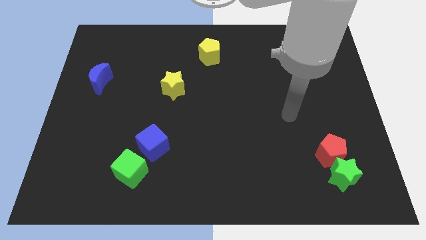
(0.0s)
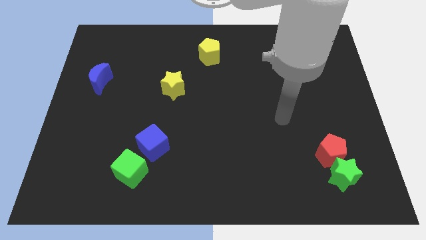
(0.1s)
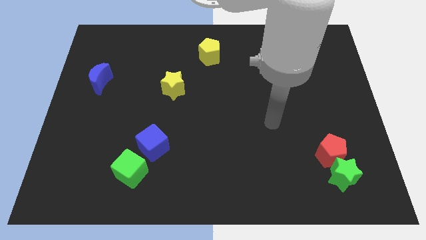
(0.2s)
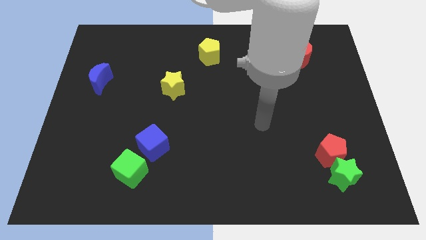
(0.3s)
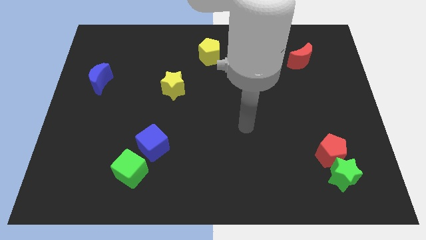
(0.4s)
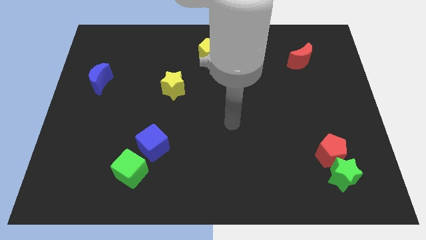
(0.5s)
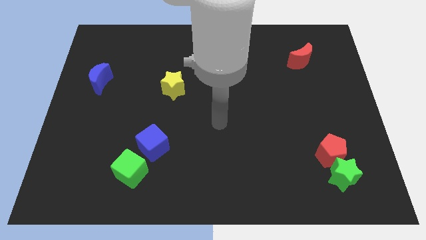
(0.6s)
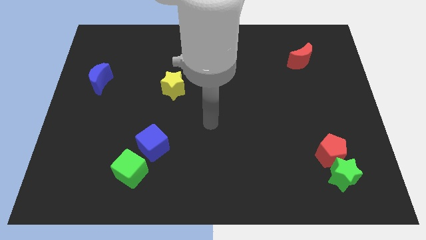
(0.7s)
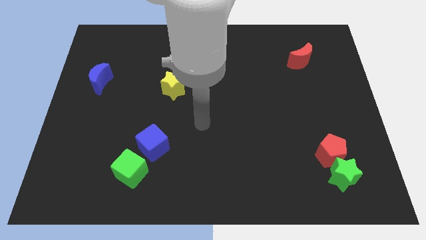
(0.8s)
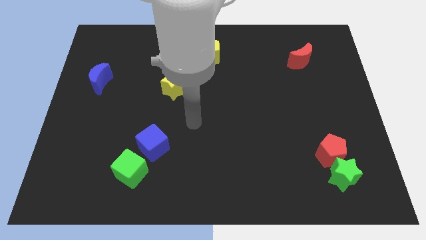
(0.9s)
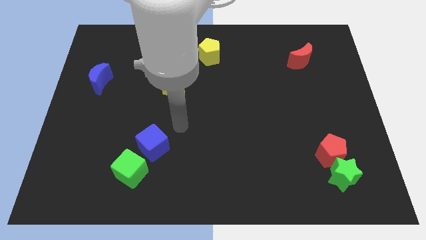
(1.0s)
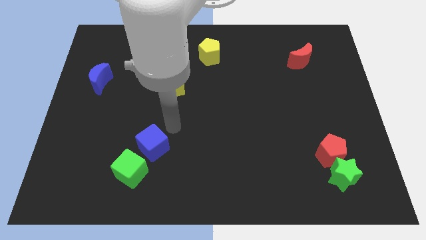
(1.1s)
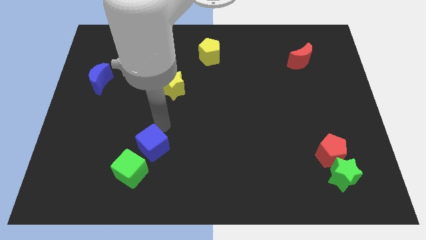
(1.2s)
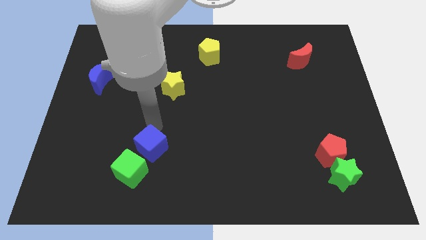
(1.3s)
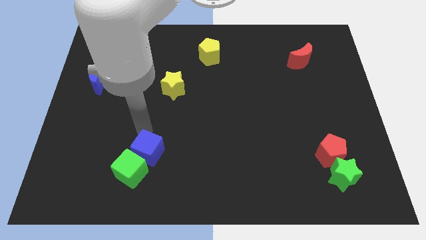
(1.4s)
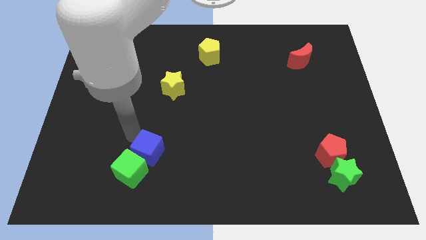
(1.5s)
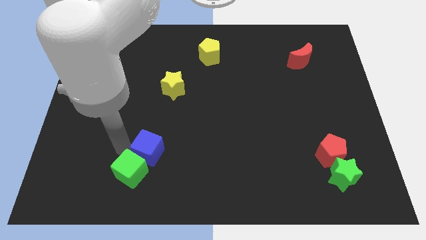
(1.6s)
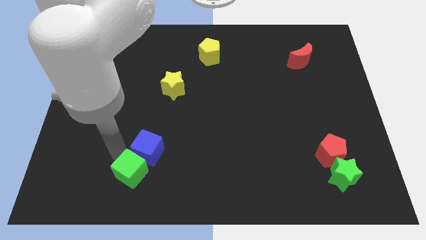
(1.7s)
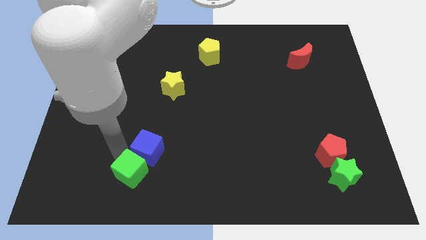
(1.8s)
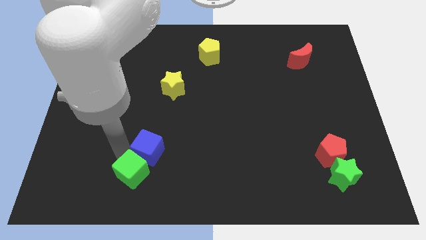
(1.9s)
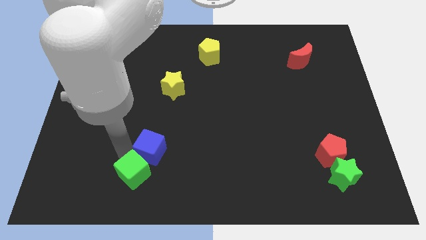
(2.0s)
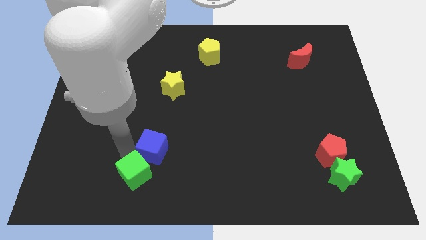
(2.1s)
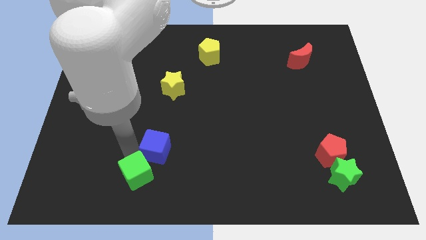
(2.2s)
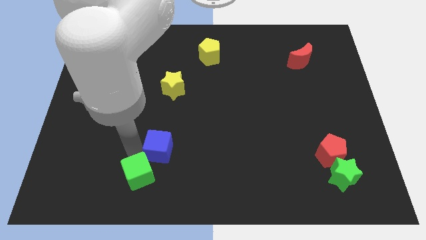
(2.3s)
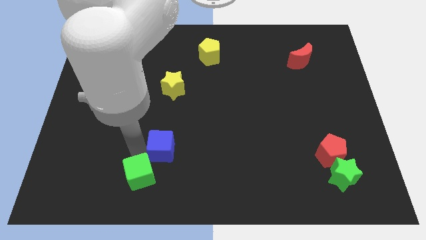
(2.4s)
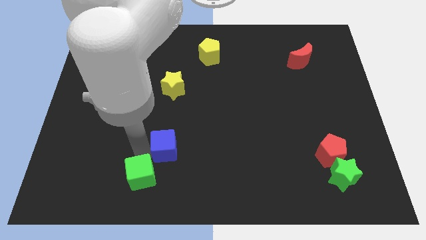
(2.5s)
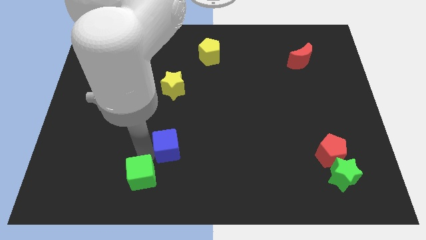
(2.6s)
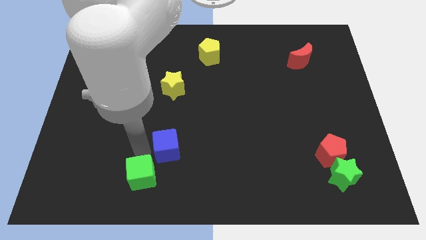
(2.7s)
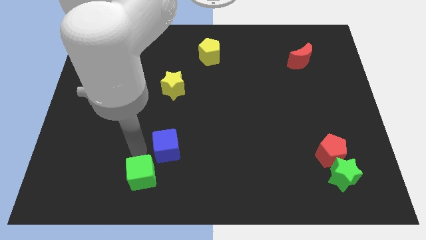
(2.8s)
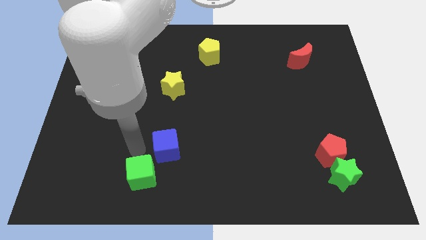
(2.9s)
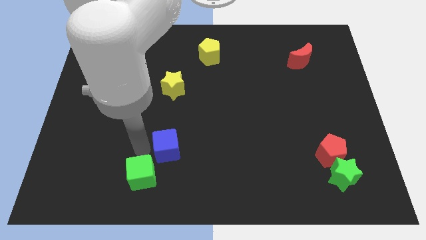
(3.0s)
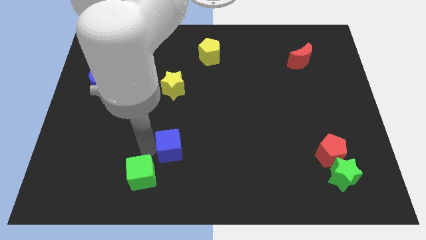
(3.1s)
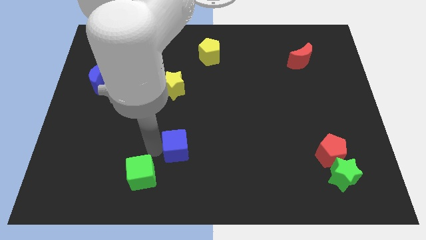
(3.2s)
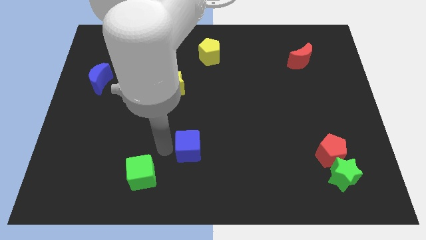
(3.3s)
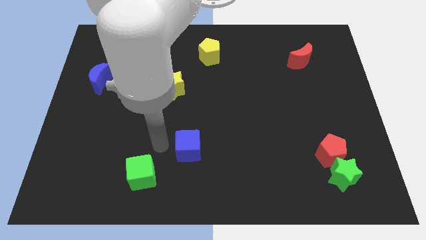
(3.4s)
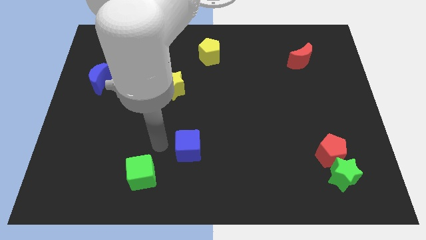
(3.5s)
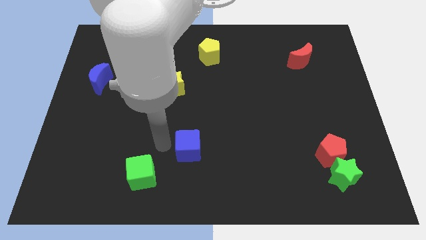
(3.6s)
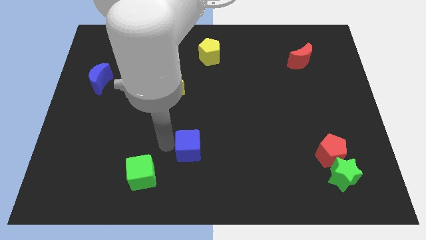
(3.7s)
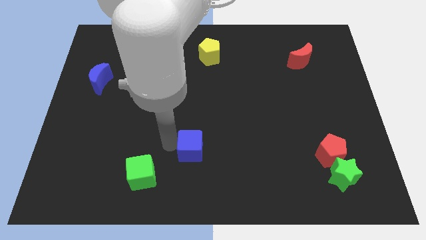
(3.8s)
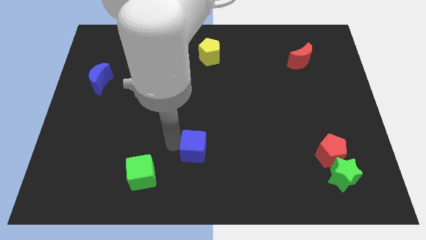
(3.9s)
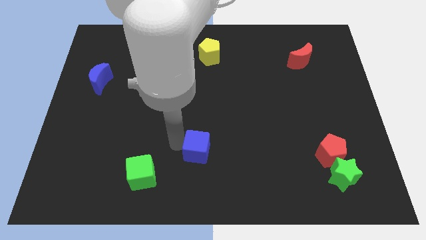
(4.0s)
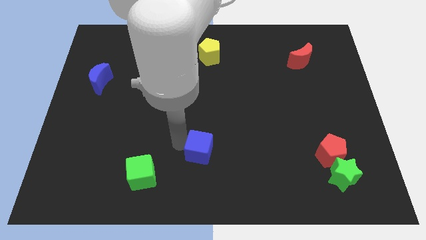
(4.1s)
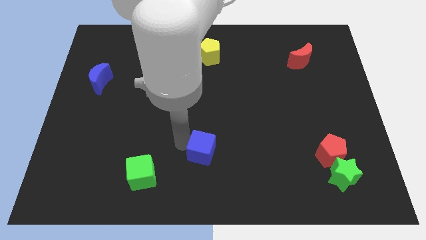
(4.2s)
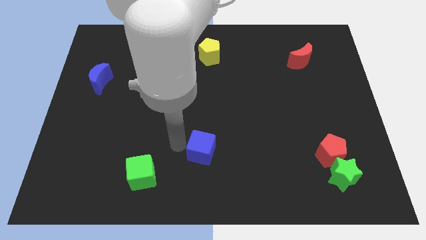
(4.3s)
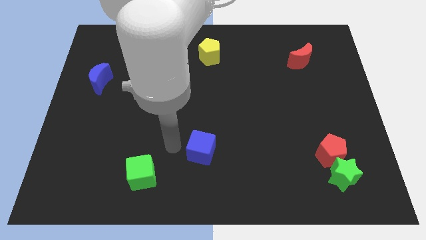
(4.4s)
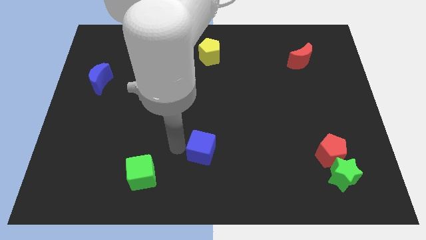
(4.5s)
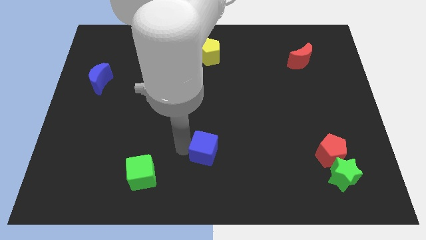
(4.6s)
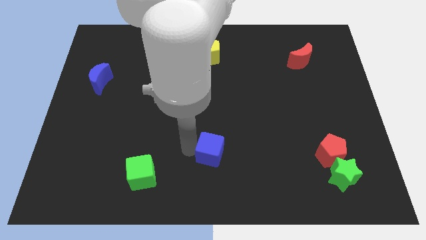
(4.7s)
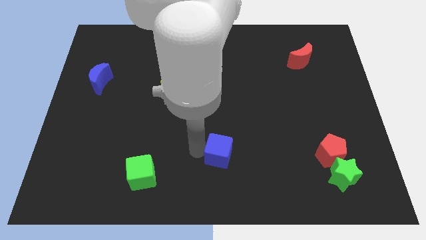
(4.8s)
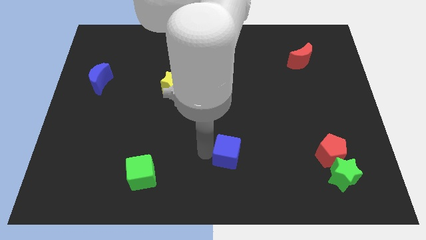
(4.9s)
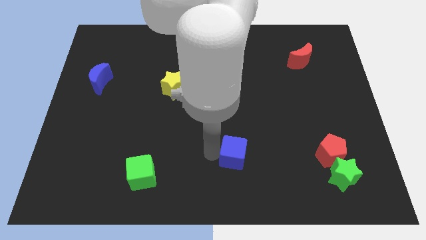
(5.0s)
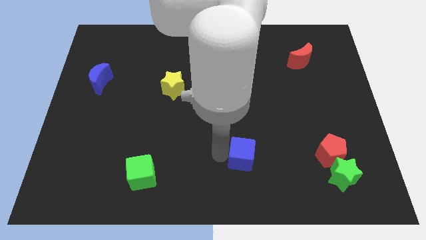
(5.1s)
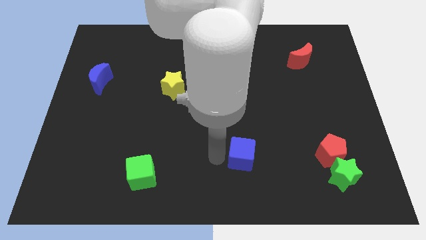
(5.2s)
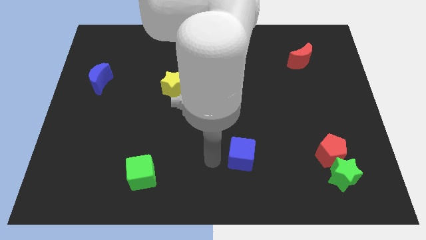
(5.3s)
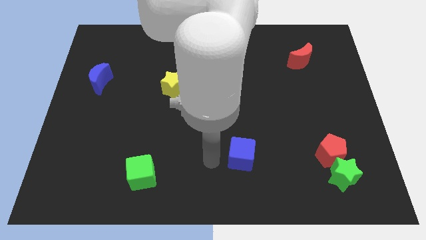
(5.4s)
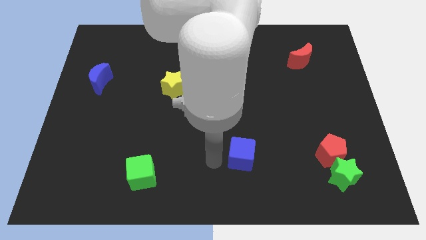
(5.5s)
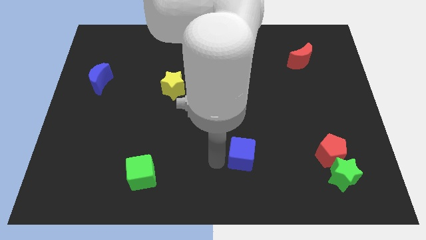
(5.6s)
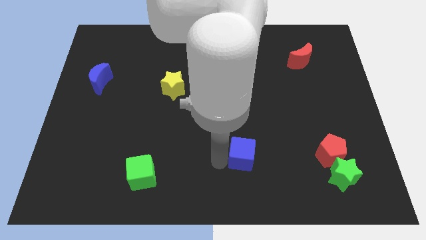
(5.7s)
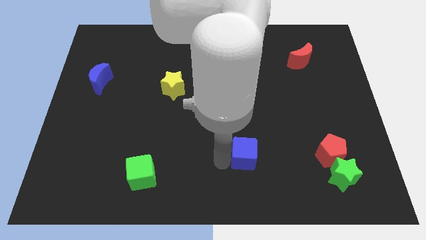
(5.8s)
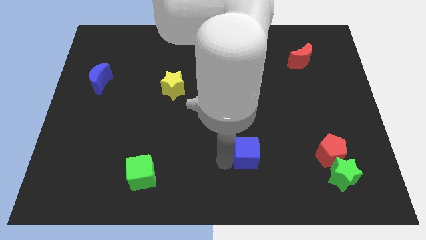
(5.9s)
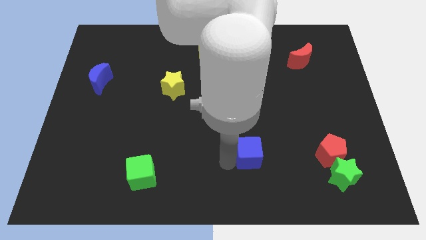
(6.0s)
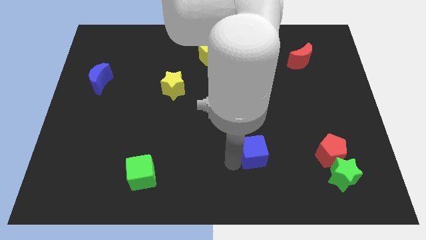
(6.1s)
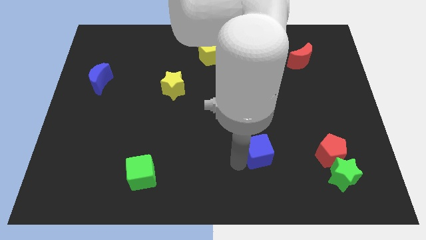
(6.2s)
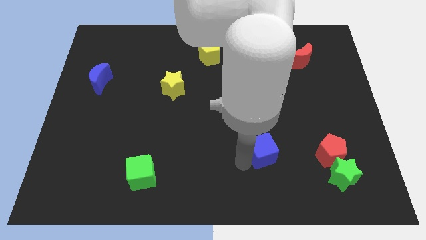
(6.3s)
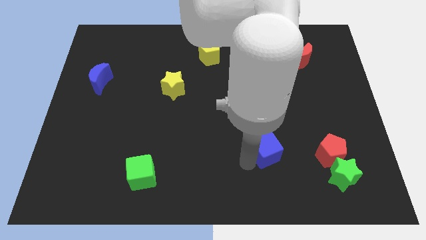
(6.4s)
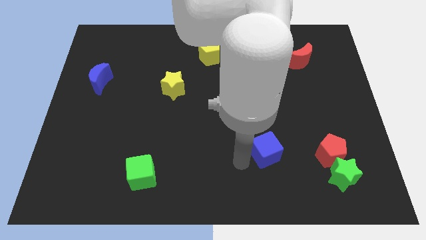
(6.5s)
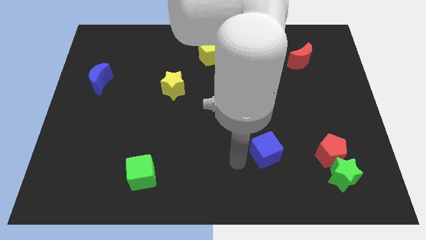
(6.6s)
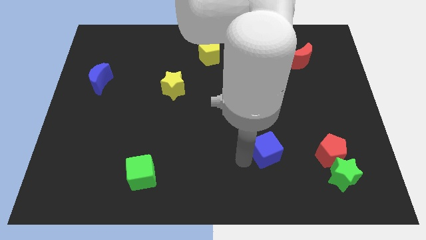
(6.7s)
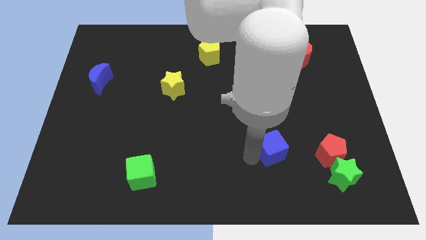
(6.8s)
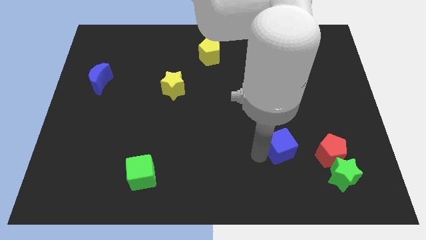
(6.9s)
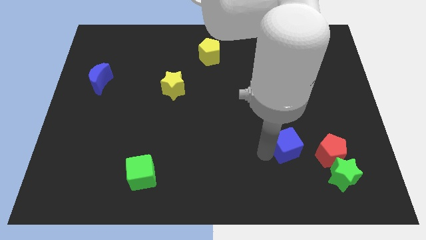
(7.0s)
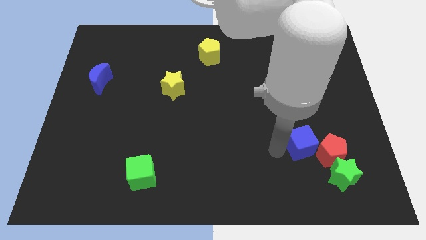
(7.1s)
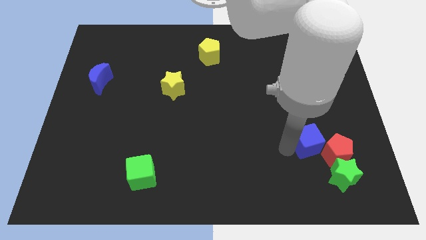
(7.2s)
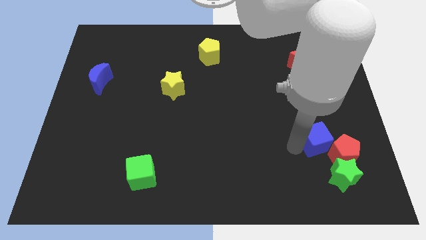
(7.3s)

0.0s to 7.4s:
move the blue cube above the green star
